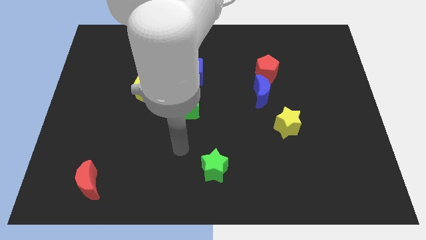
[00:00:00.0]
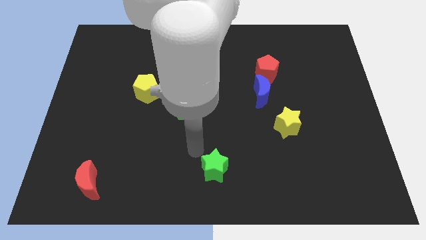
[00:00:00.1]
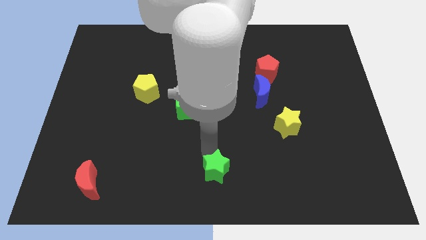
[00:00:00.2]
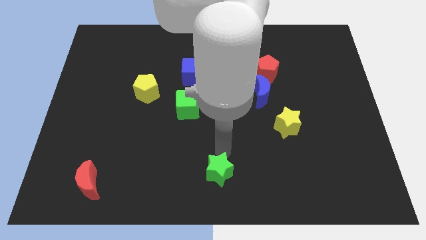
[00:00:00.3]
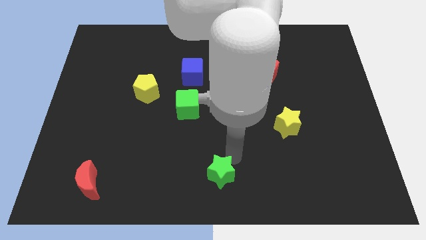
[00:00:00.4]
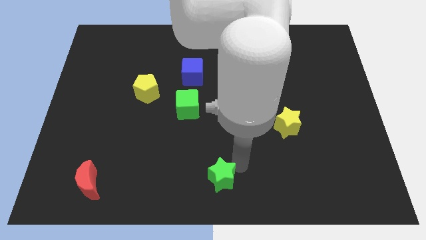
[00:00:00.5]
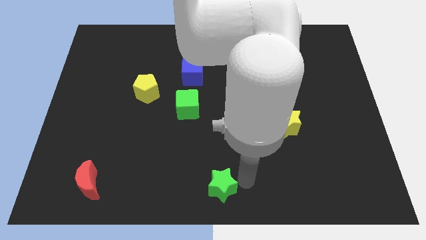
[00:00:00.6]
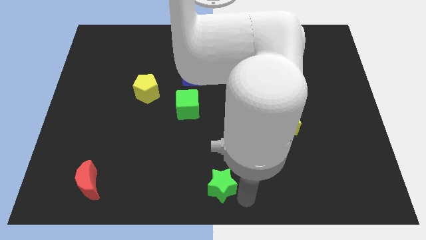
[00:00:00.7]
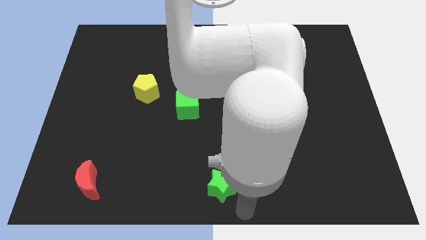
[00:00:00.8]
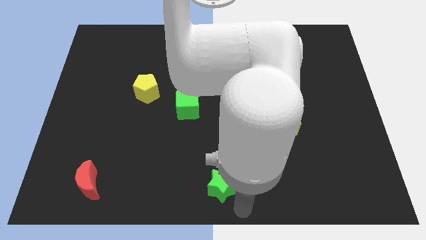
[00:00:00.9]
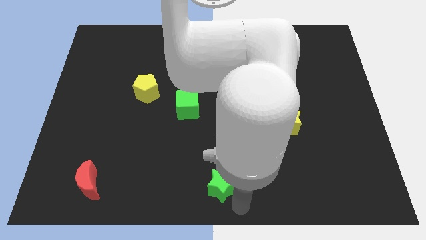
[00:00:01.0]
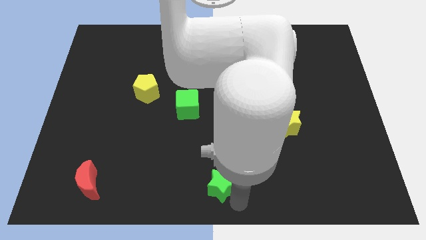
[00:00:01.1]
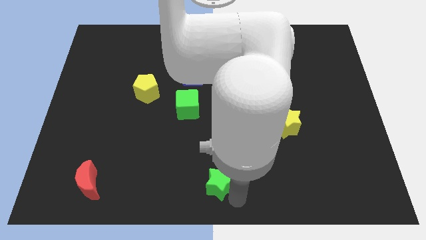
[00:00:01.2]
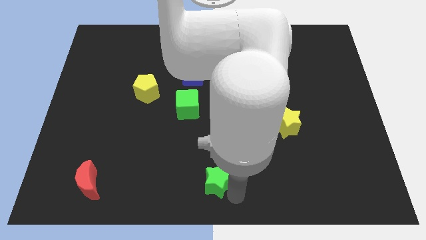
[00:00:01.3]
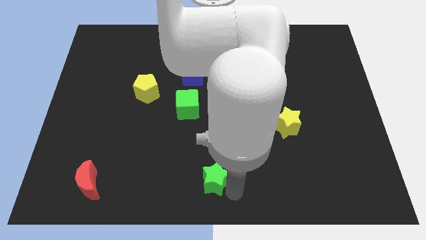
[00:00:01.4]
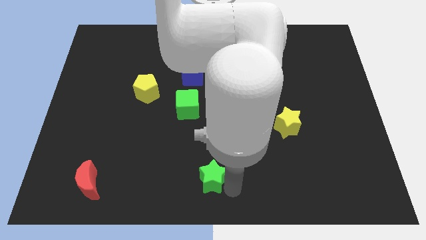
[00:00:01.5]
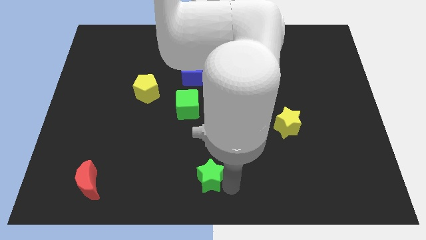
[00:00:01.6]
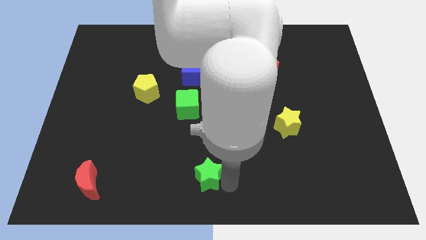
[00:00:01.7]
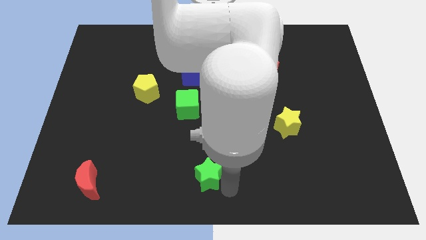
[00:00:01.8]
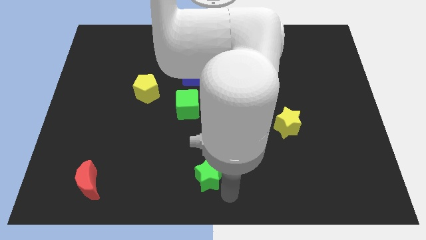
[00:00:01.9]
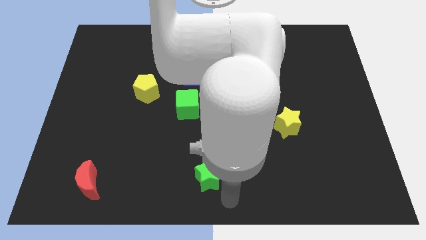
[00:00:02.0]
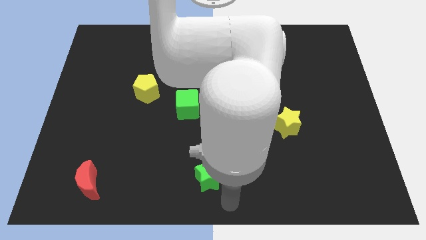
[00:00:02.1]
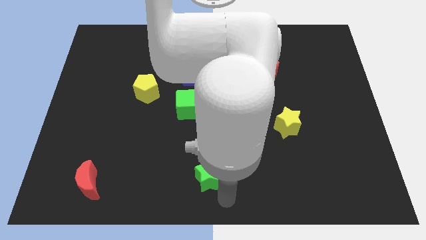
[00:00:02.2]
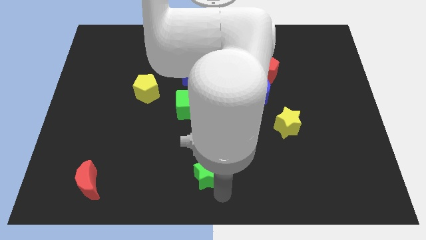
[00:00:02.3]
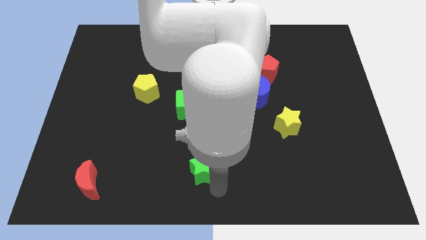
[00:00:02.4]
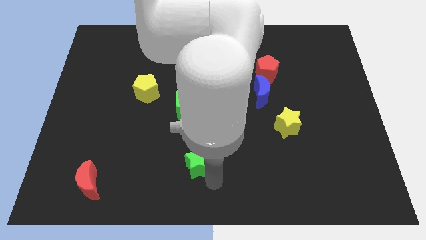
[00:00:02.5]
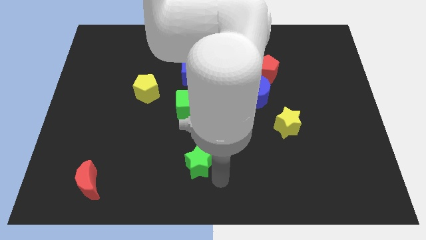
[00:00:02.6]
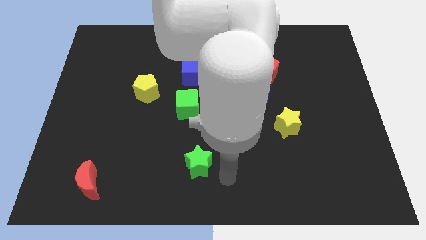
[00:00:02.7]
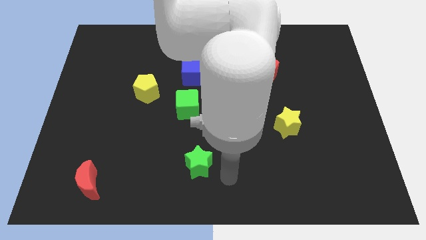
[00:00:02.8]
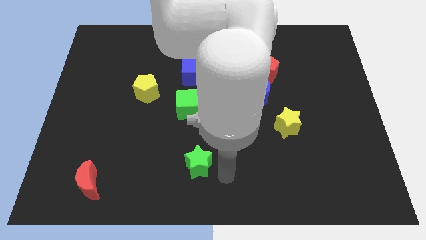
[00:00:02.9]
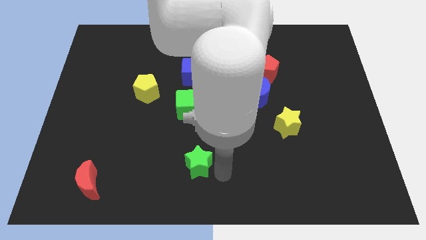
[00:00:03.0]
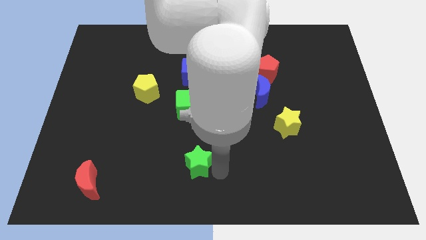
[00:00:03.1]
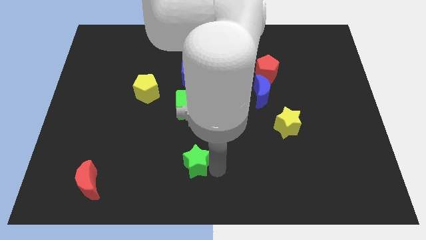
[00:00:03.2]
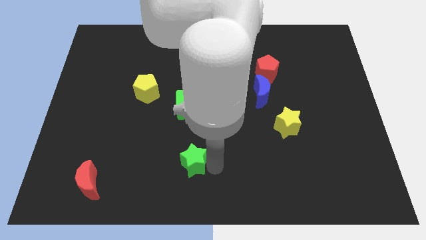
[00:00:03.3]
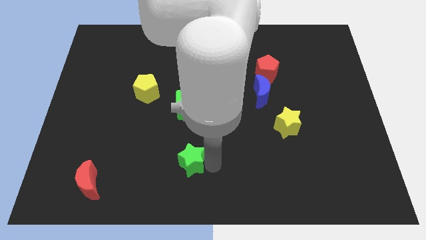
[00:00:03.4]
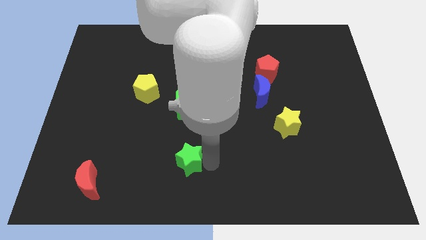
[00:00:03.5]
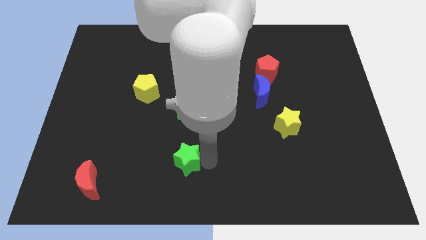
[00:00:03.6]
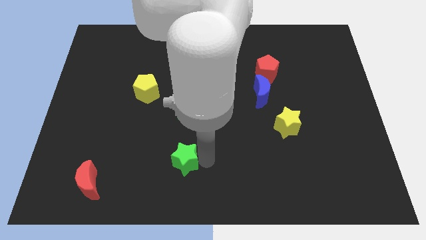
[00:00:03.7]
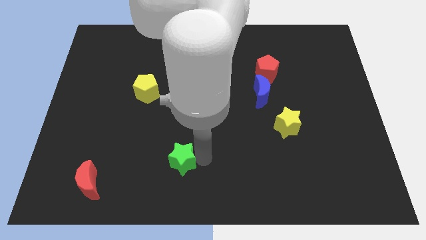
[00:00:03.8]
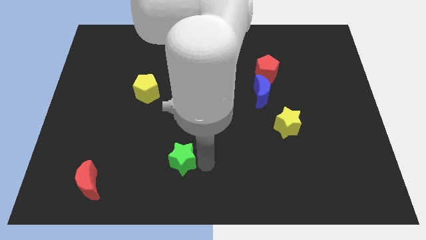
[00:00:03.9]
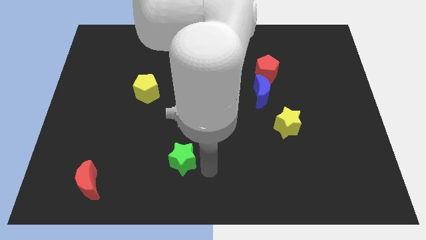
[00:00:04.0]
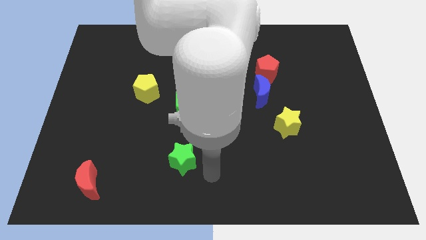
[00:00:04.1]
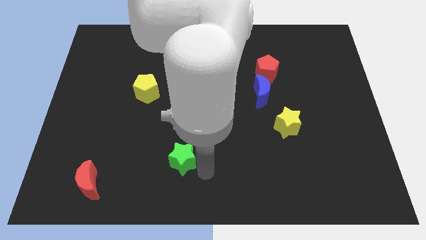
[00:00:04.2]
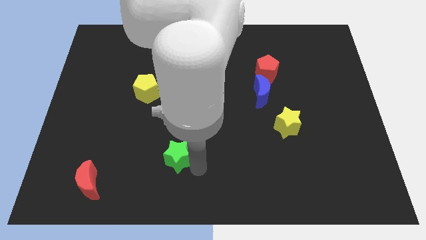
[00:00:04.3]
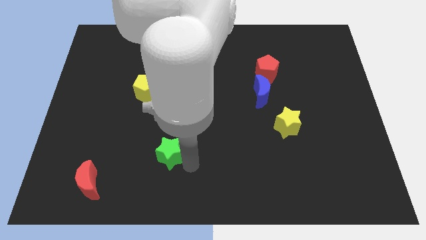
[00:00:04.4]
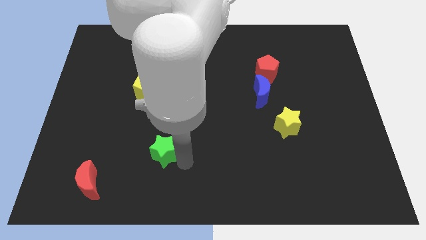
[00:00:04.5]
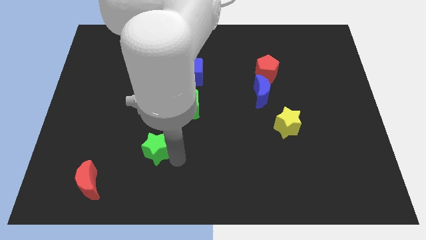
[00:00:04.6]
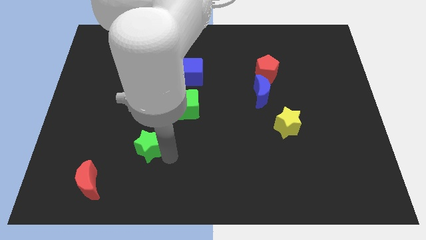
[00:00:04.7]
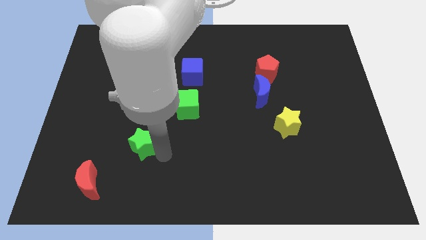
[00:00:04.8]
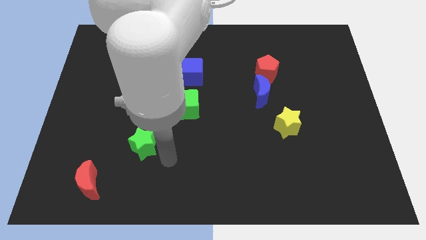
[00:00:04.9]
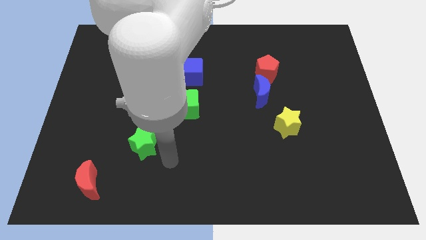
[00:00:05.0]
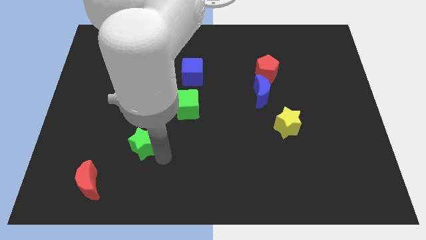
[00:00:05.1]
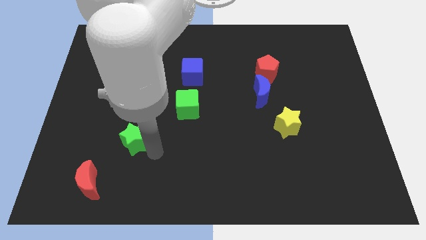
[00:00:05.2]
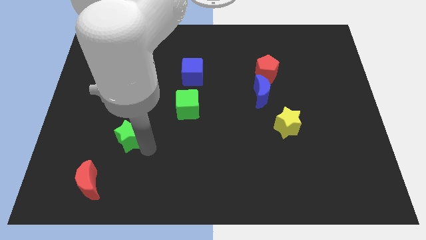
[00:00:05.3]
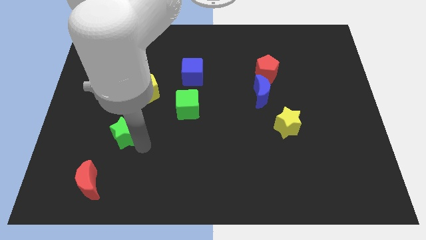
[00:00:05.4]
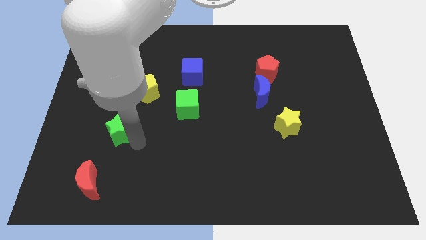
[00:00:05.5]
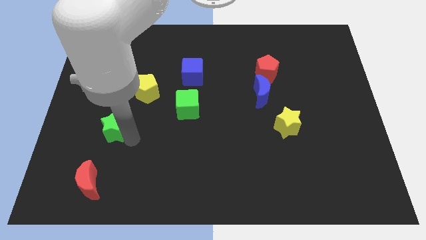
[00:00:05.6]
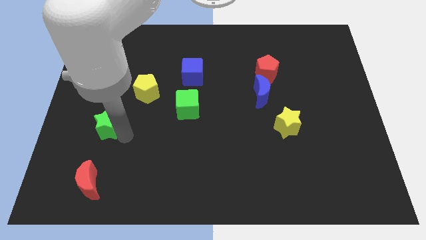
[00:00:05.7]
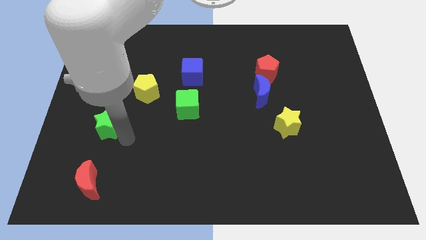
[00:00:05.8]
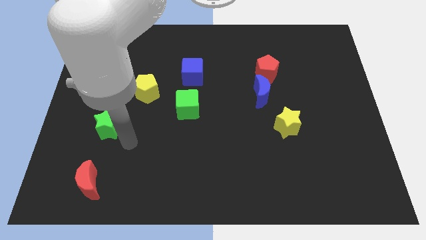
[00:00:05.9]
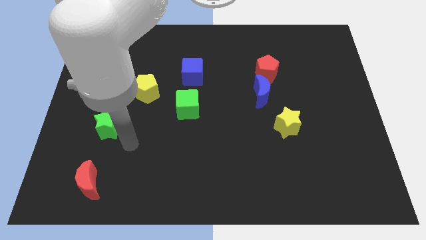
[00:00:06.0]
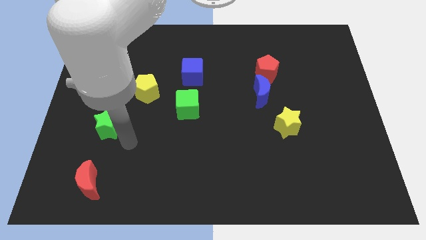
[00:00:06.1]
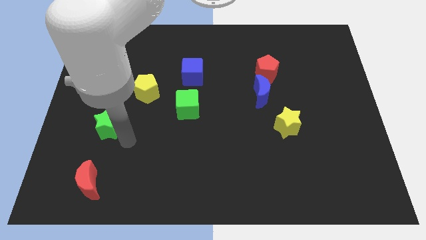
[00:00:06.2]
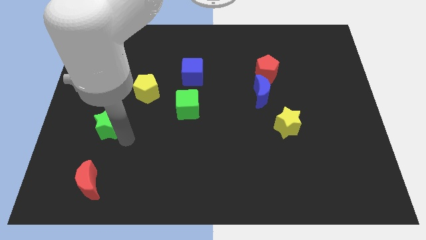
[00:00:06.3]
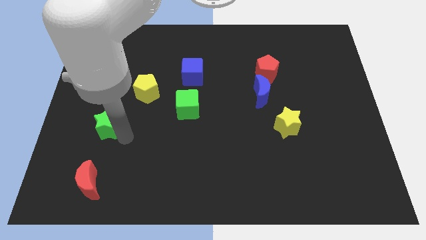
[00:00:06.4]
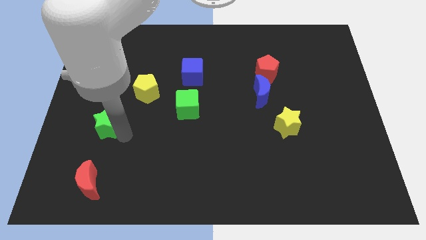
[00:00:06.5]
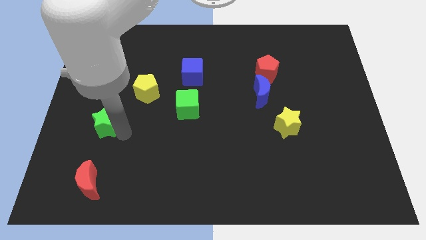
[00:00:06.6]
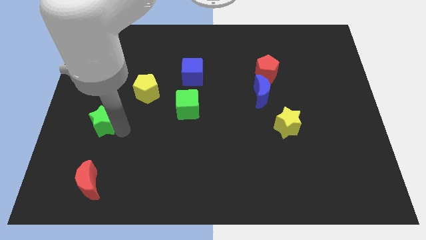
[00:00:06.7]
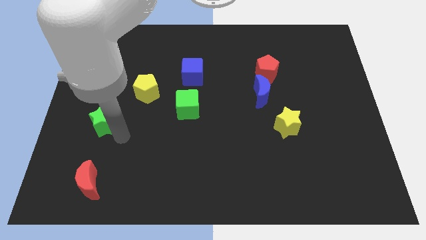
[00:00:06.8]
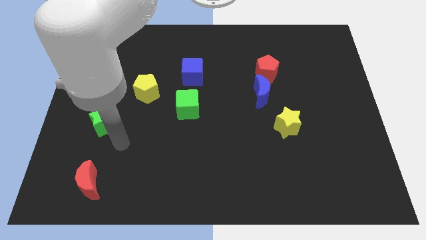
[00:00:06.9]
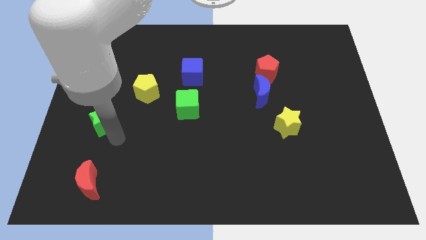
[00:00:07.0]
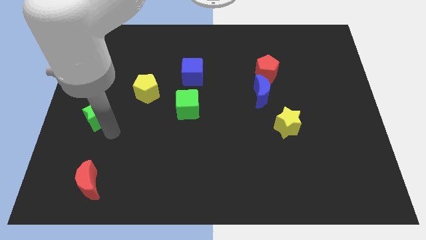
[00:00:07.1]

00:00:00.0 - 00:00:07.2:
push the green star to the center left
